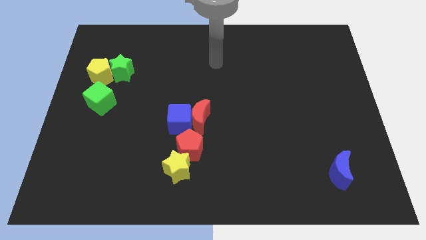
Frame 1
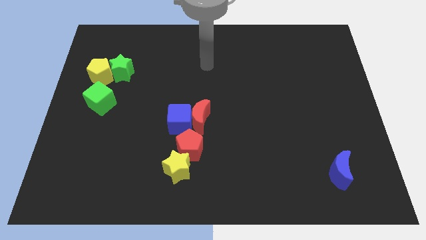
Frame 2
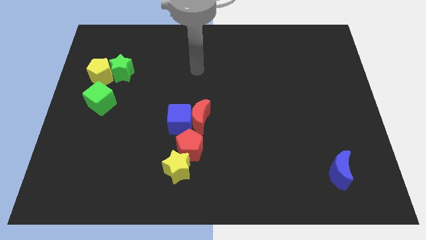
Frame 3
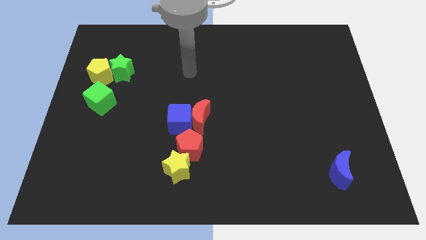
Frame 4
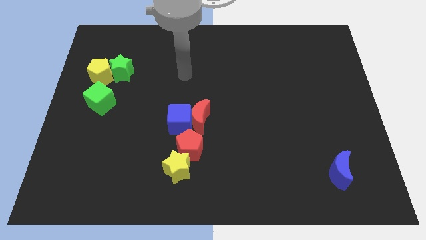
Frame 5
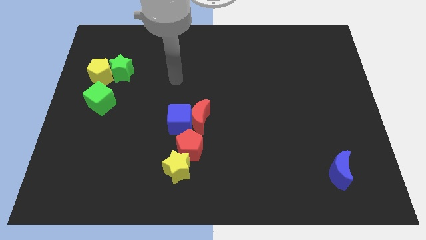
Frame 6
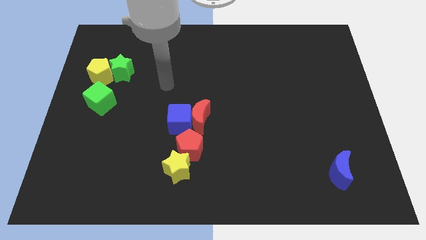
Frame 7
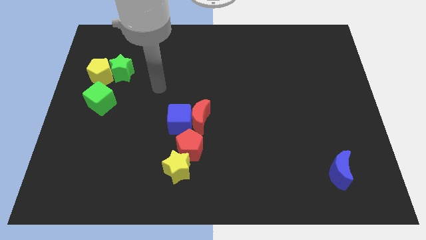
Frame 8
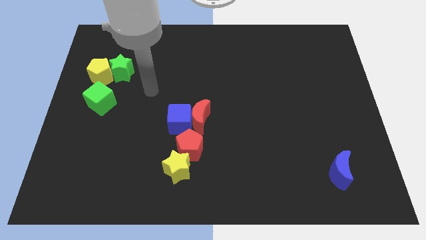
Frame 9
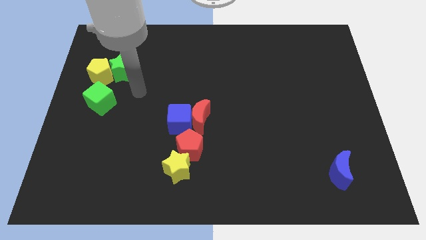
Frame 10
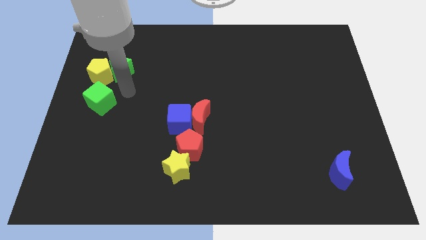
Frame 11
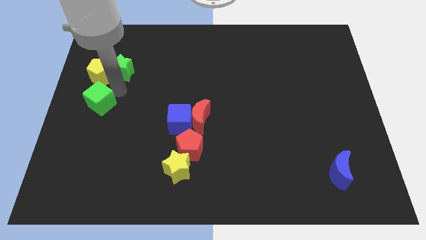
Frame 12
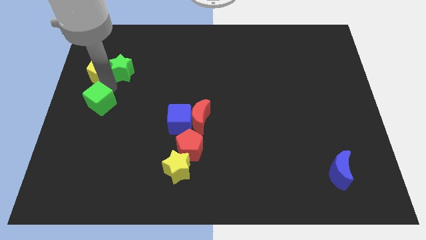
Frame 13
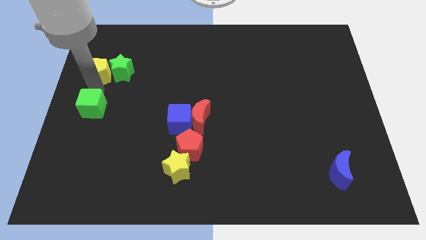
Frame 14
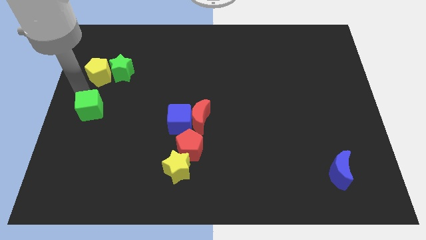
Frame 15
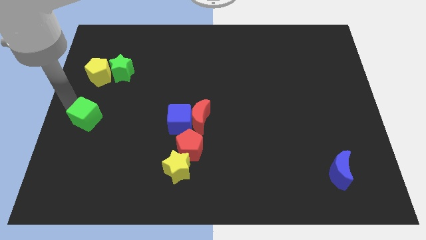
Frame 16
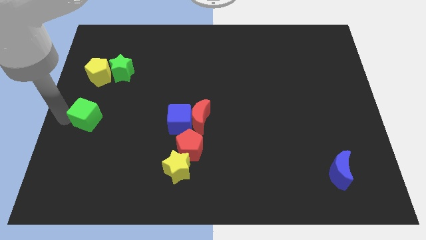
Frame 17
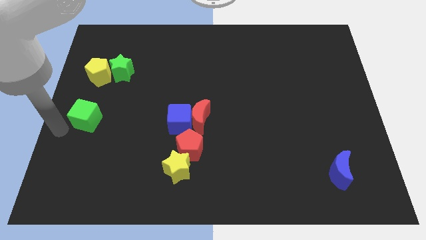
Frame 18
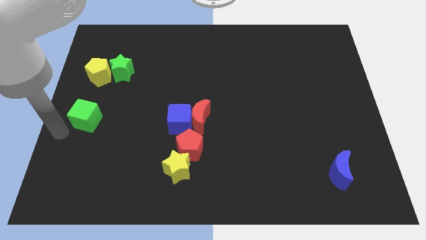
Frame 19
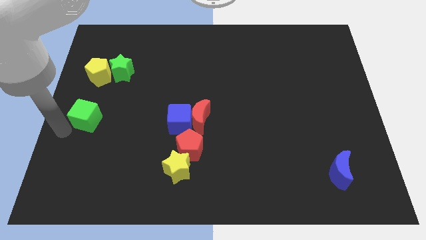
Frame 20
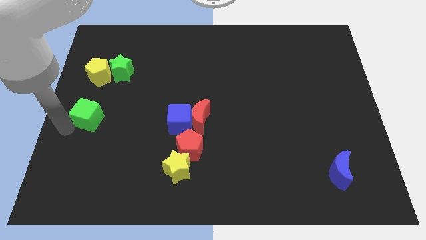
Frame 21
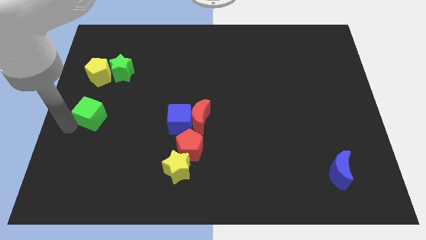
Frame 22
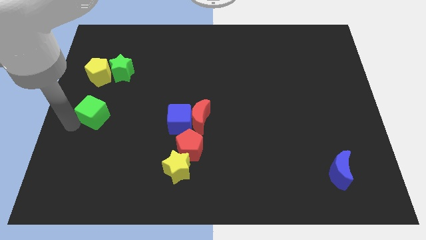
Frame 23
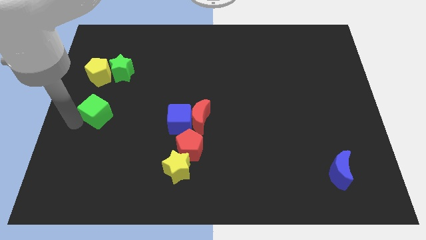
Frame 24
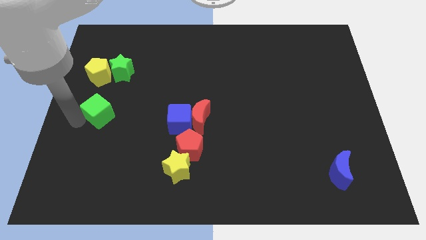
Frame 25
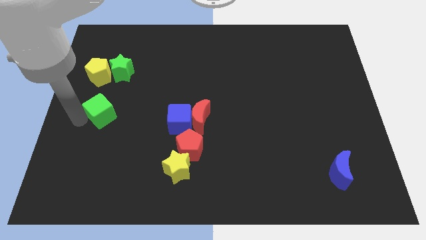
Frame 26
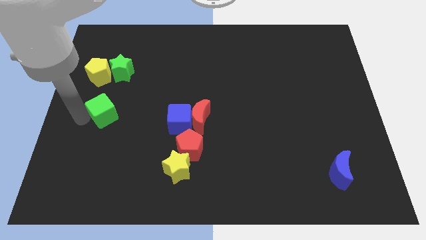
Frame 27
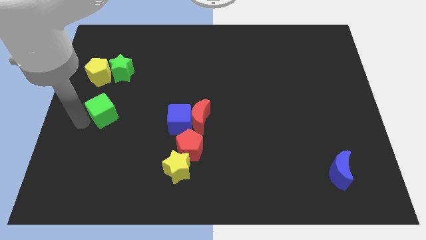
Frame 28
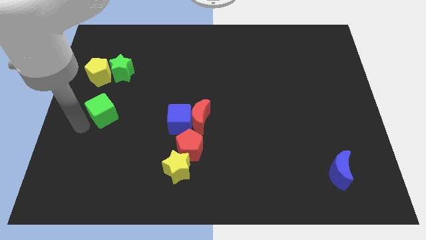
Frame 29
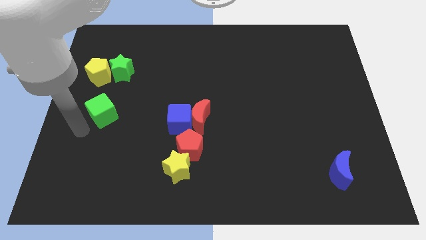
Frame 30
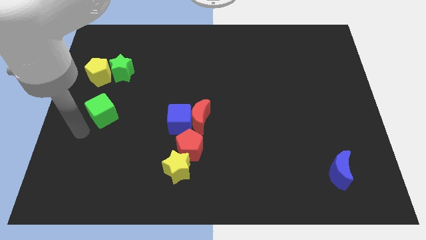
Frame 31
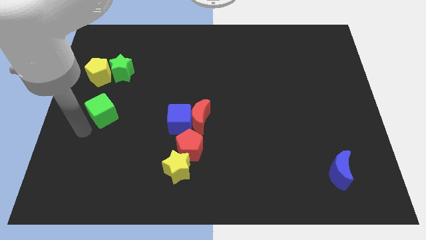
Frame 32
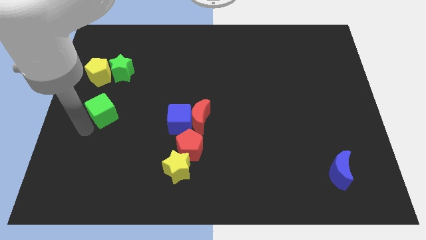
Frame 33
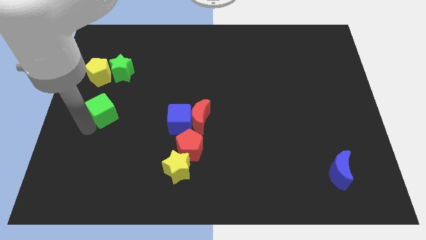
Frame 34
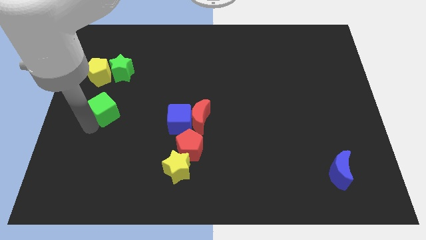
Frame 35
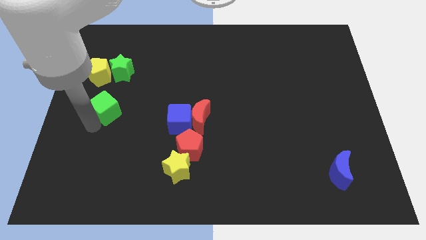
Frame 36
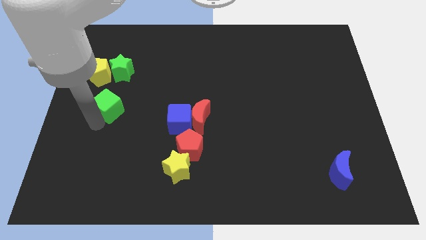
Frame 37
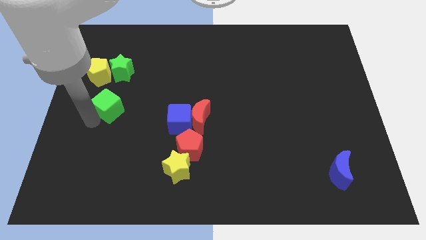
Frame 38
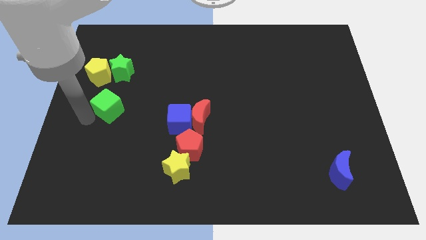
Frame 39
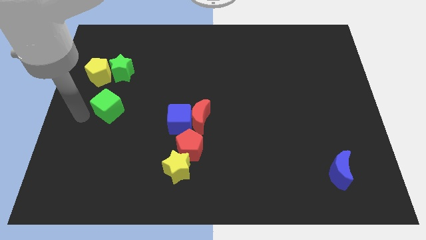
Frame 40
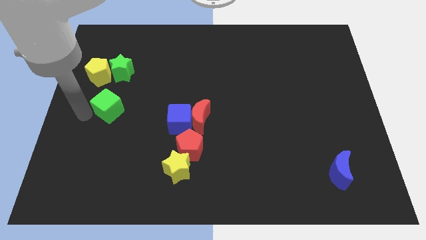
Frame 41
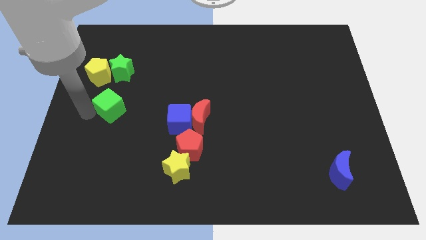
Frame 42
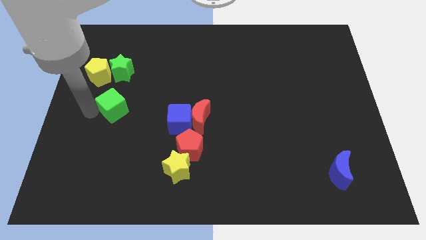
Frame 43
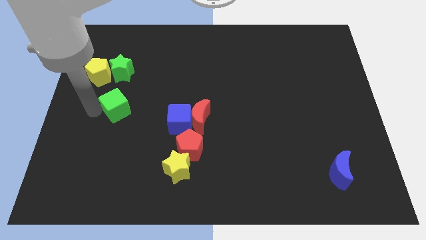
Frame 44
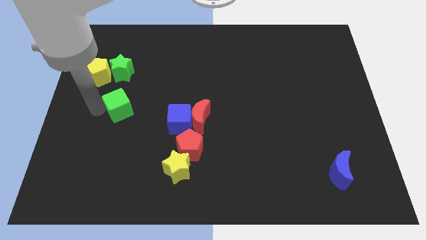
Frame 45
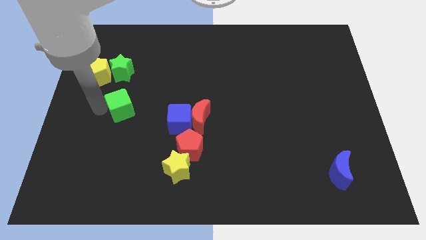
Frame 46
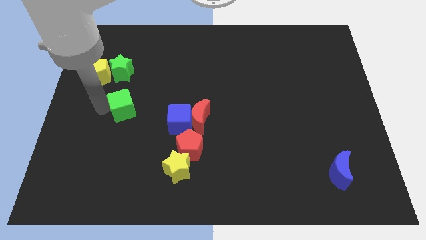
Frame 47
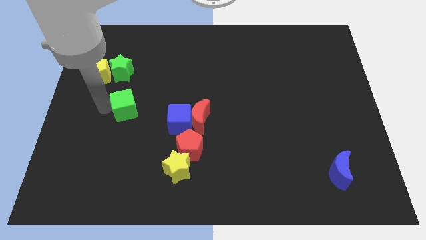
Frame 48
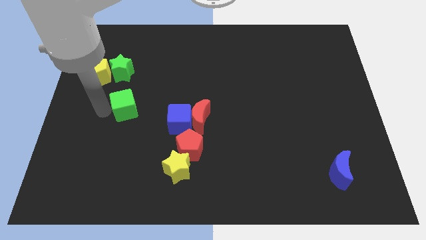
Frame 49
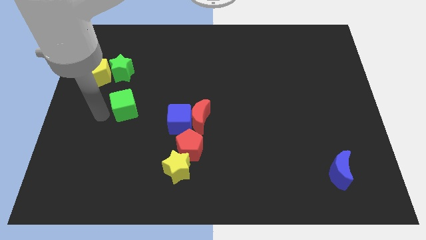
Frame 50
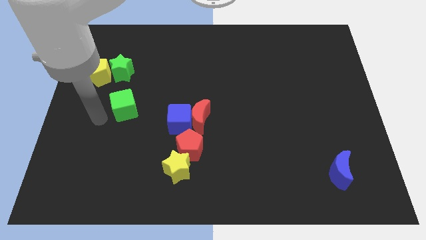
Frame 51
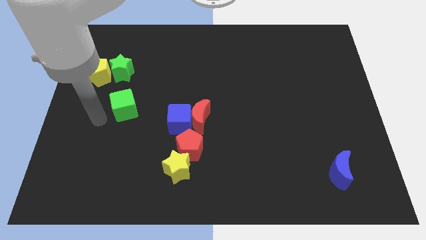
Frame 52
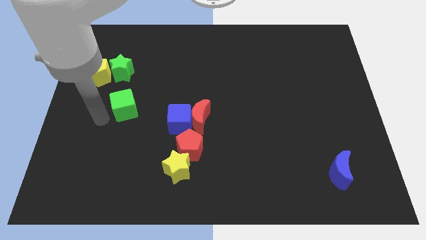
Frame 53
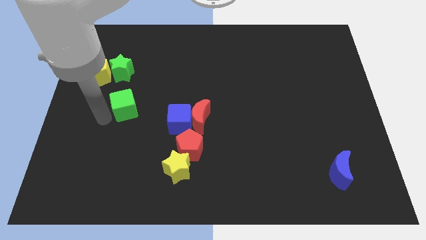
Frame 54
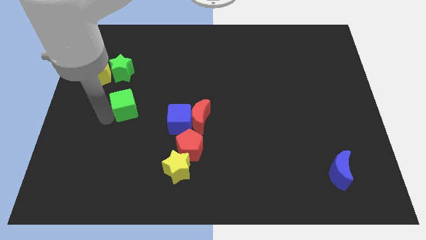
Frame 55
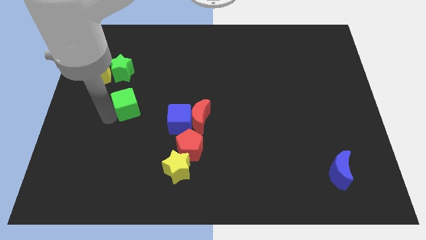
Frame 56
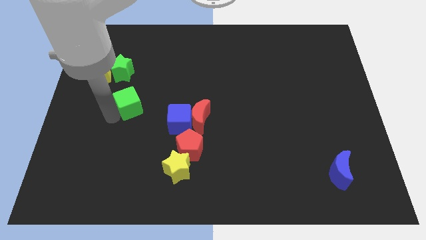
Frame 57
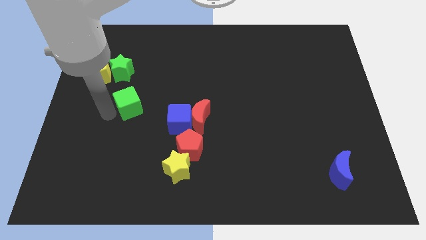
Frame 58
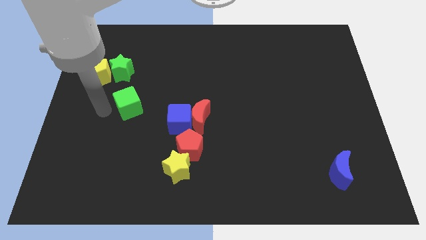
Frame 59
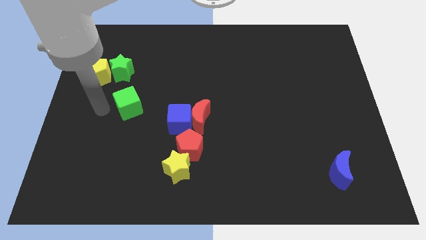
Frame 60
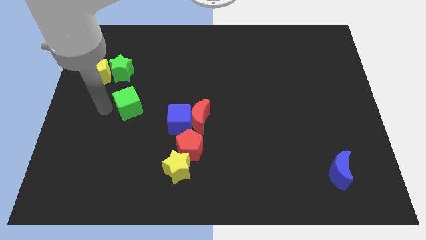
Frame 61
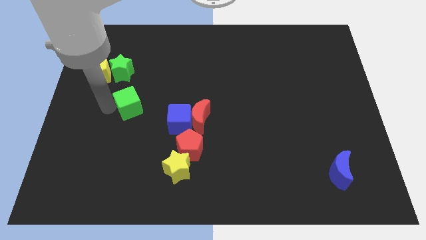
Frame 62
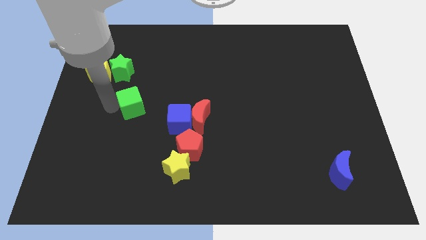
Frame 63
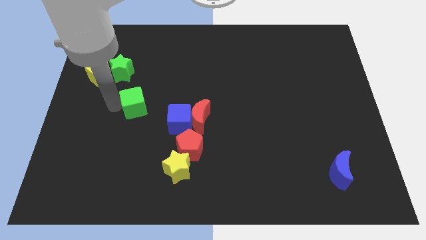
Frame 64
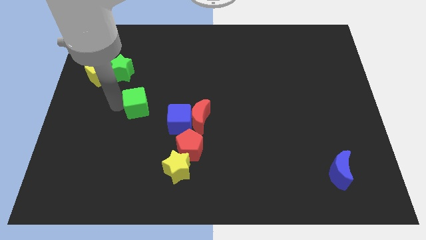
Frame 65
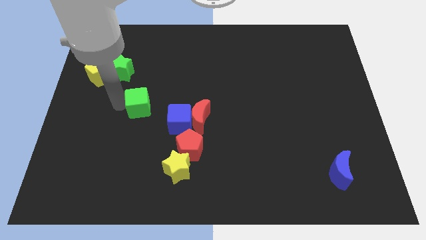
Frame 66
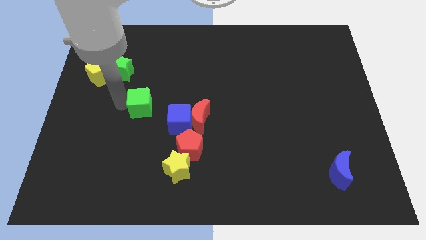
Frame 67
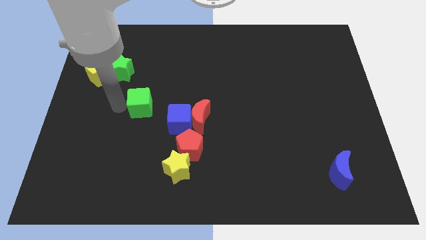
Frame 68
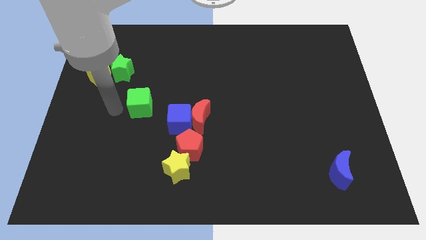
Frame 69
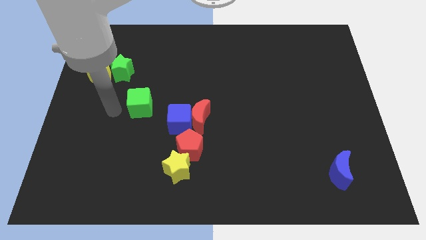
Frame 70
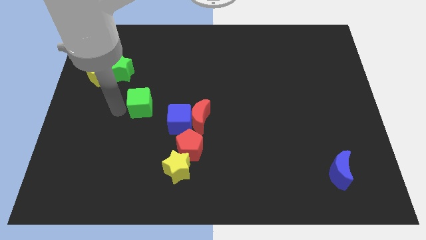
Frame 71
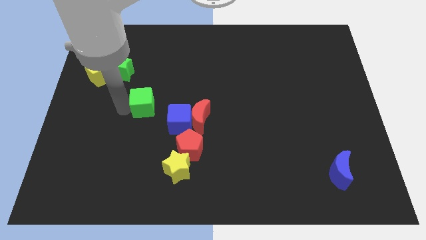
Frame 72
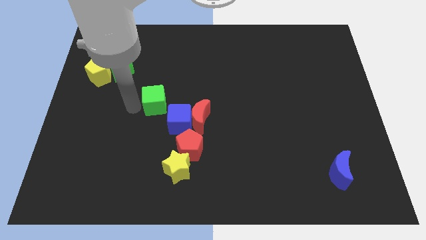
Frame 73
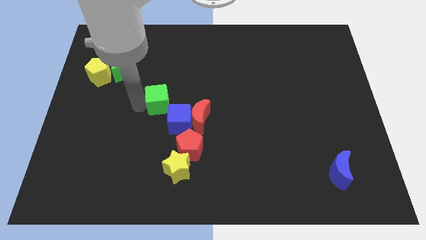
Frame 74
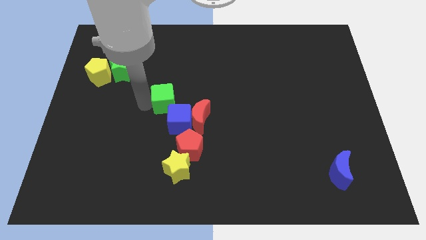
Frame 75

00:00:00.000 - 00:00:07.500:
put the green cube to the middle
